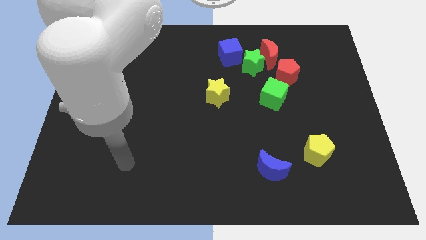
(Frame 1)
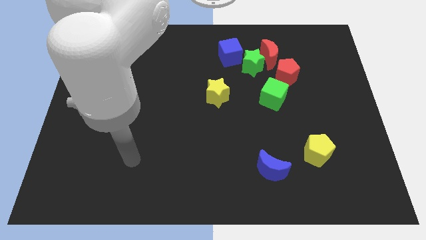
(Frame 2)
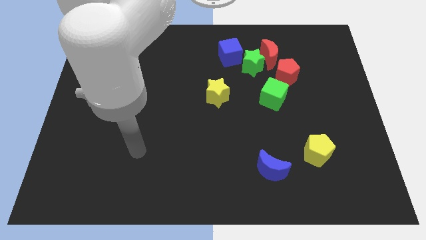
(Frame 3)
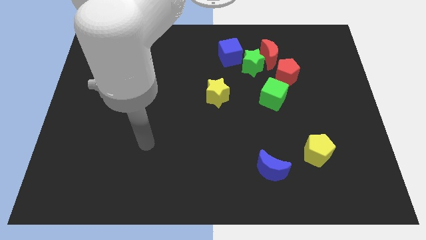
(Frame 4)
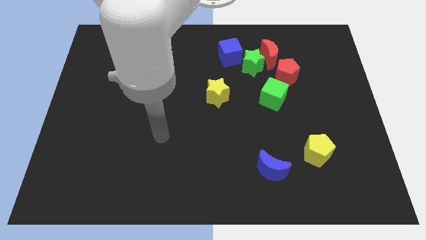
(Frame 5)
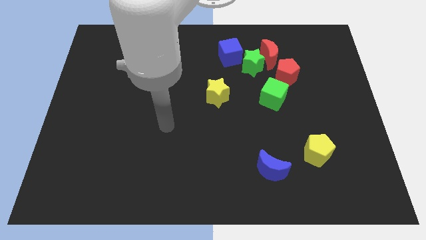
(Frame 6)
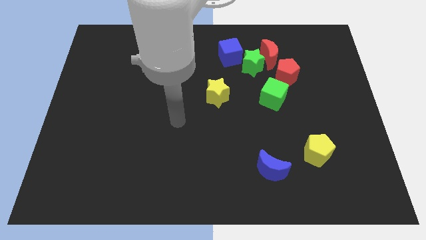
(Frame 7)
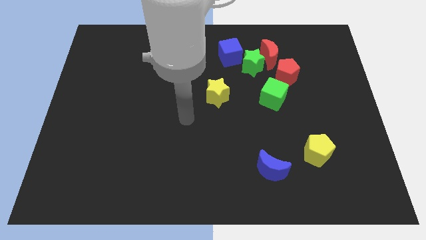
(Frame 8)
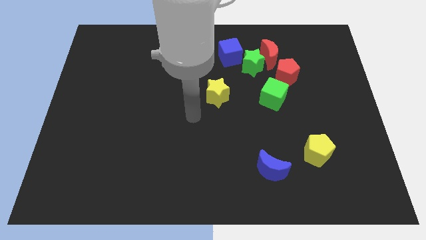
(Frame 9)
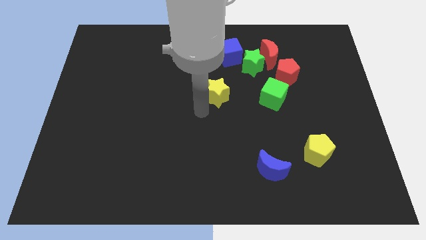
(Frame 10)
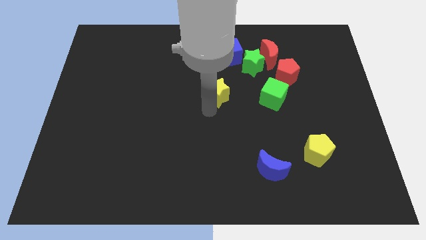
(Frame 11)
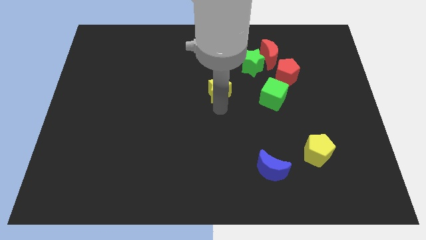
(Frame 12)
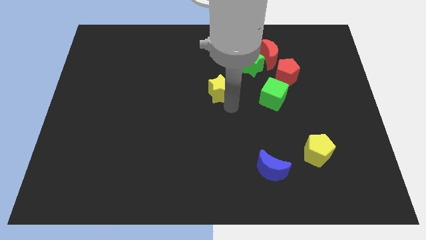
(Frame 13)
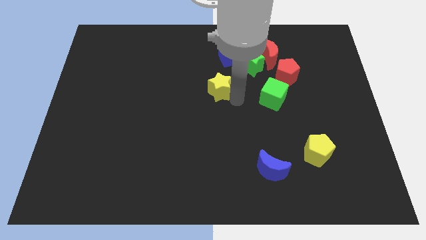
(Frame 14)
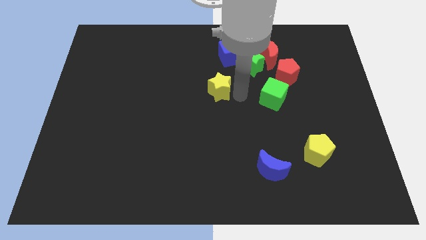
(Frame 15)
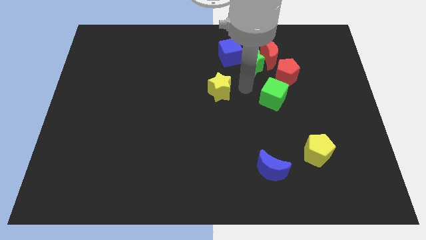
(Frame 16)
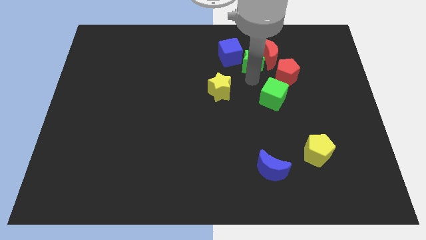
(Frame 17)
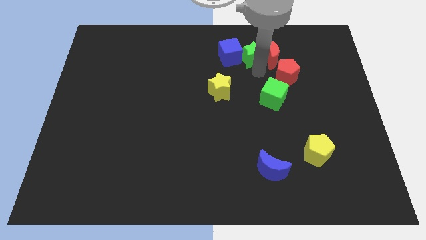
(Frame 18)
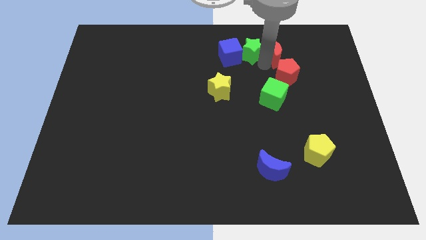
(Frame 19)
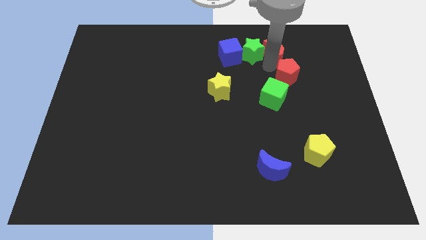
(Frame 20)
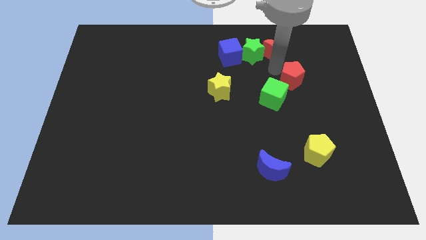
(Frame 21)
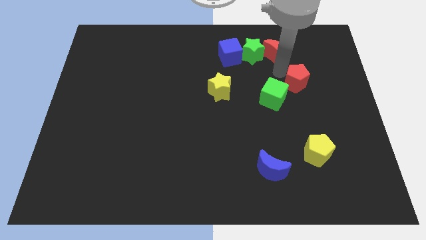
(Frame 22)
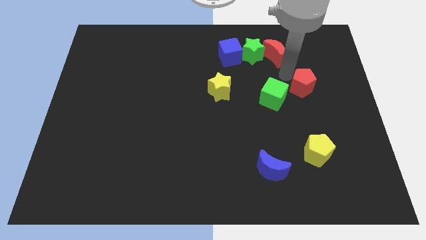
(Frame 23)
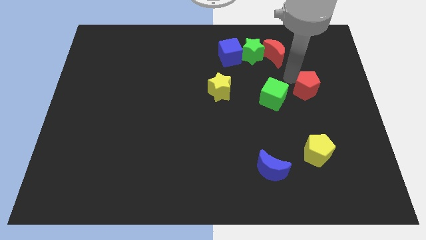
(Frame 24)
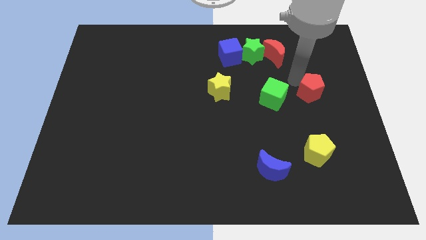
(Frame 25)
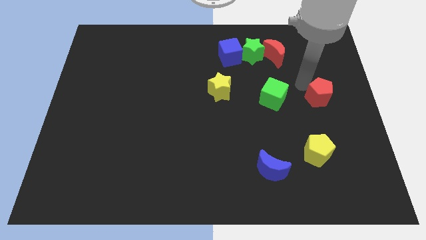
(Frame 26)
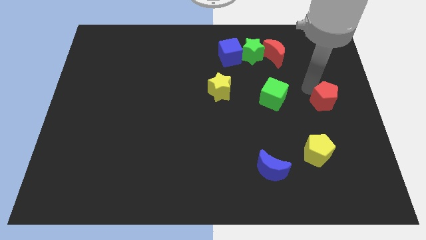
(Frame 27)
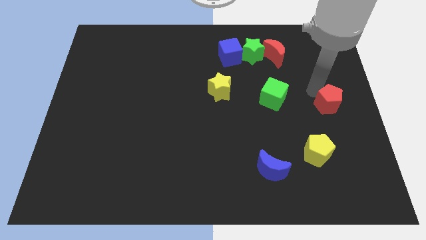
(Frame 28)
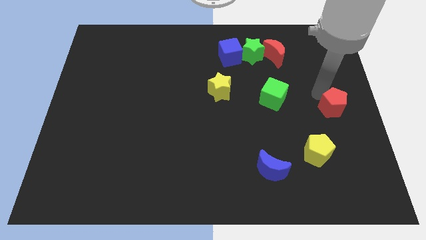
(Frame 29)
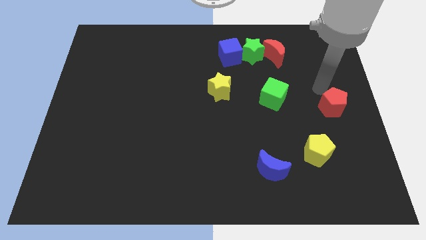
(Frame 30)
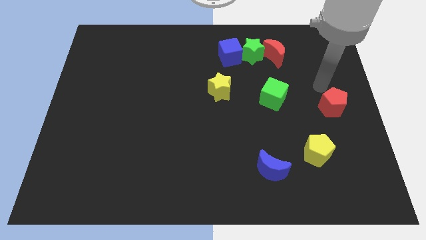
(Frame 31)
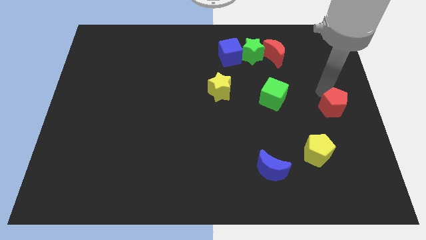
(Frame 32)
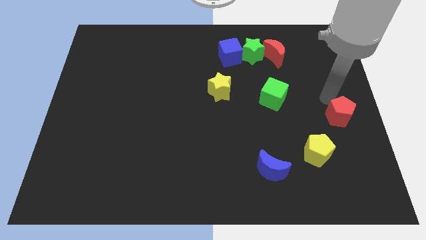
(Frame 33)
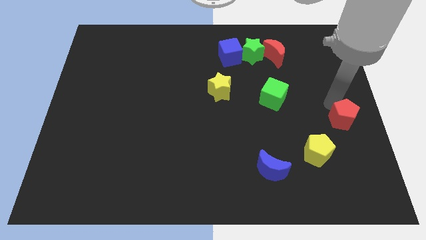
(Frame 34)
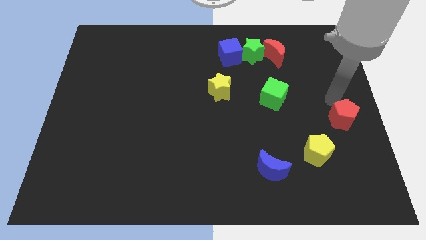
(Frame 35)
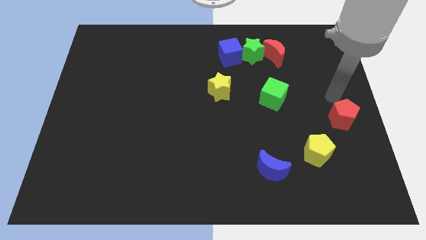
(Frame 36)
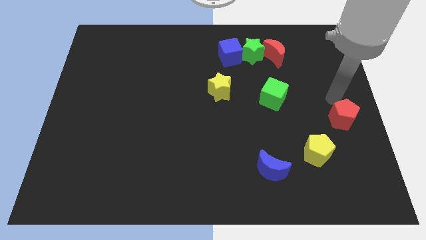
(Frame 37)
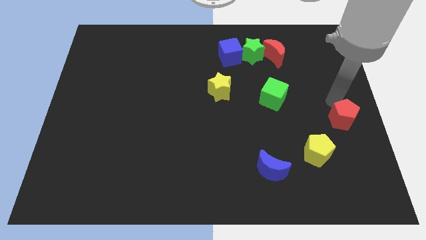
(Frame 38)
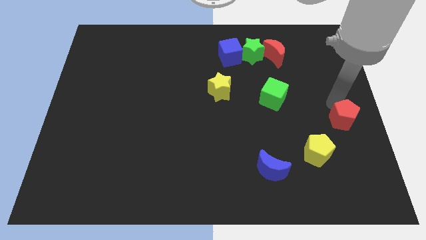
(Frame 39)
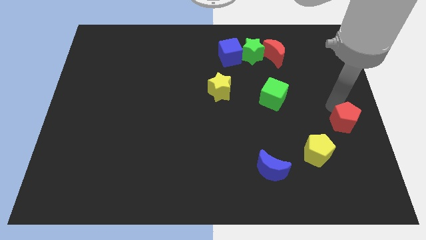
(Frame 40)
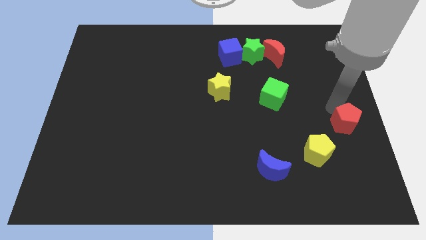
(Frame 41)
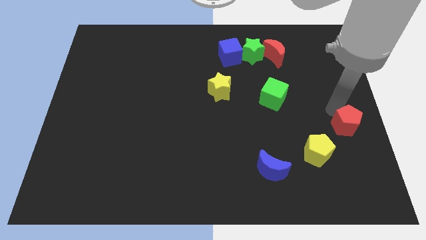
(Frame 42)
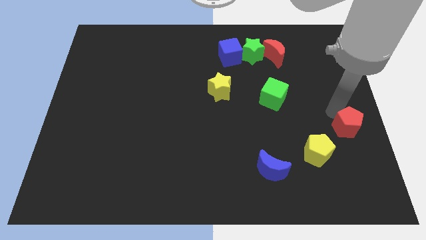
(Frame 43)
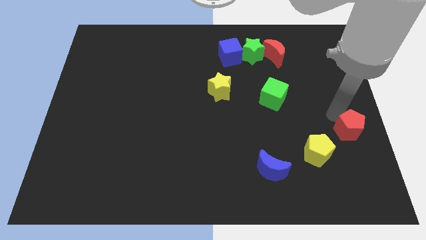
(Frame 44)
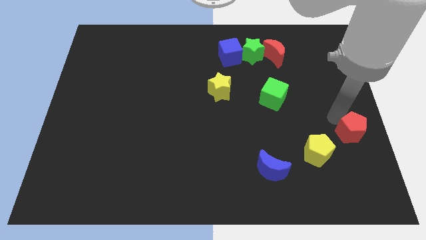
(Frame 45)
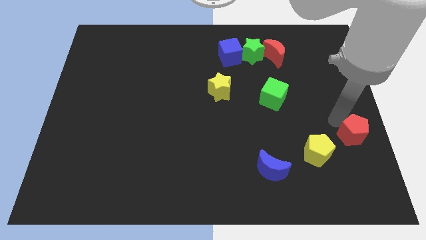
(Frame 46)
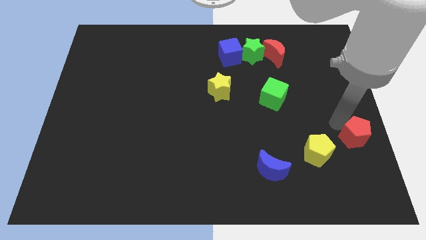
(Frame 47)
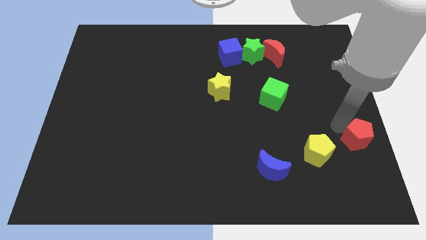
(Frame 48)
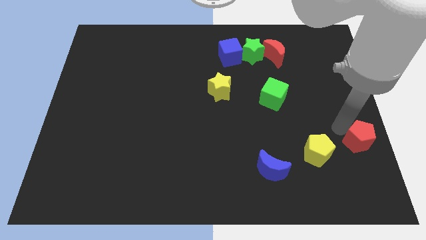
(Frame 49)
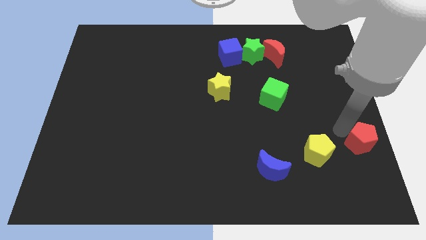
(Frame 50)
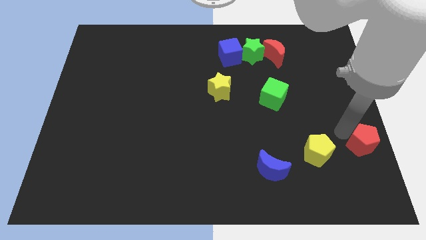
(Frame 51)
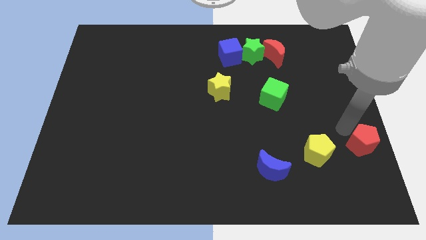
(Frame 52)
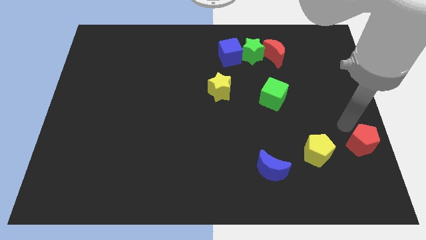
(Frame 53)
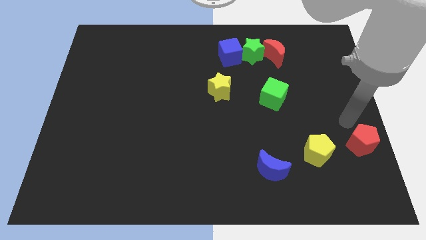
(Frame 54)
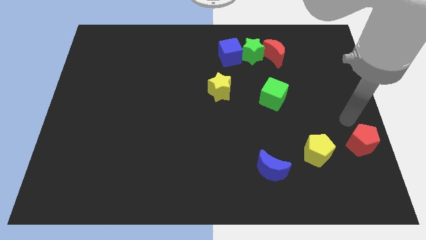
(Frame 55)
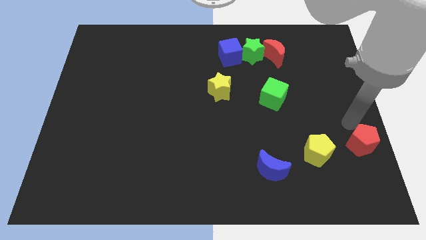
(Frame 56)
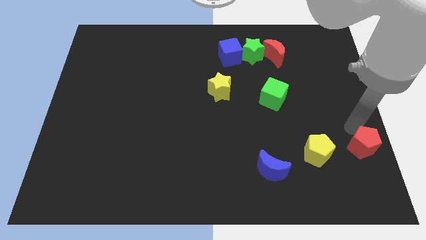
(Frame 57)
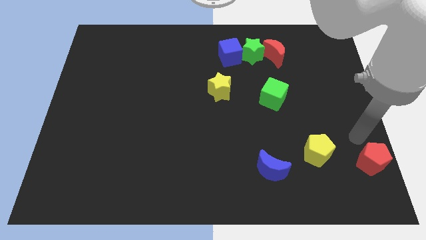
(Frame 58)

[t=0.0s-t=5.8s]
push the red pentagon to the bottom right of the board

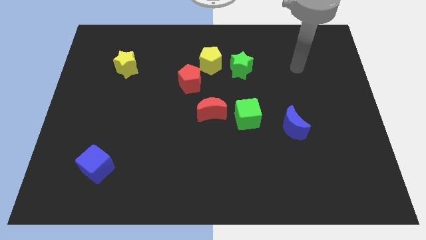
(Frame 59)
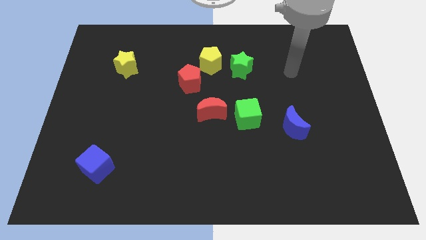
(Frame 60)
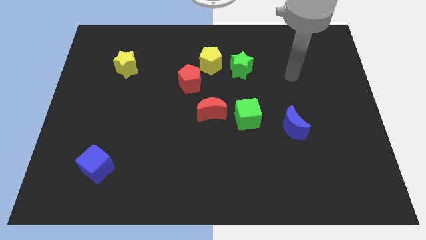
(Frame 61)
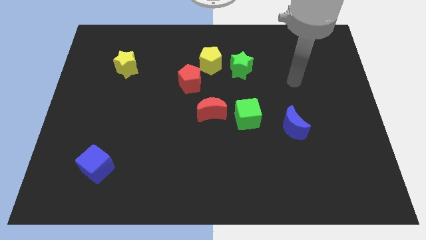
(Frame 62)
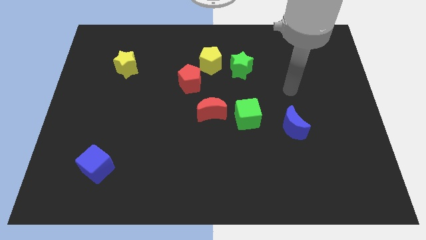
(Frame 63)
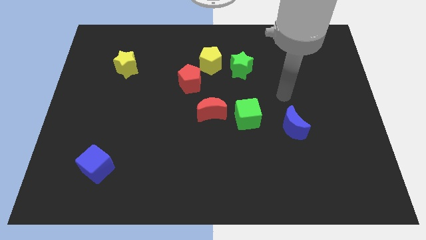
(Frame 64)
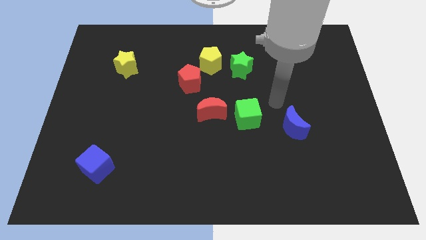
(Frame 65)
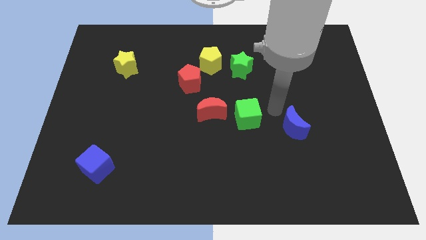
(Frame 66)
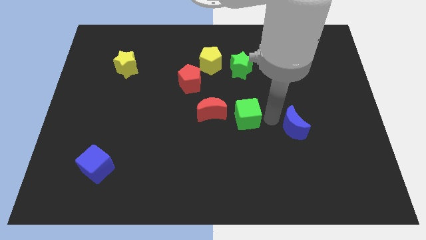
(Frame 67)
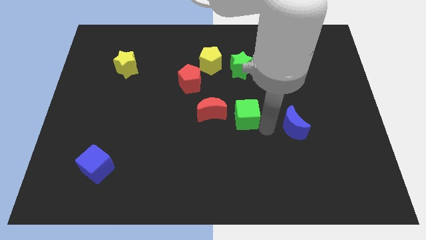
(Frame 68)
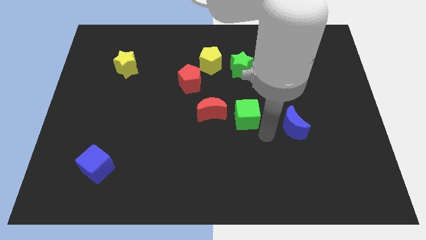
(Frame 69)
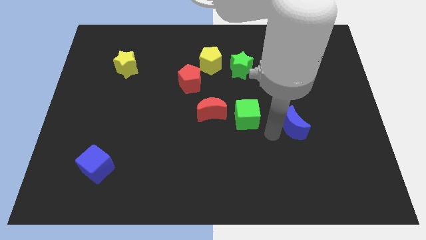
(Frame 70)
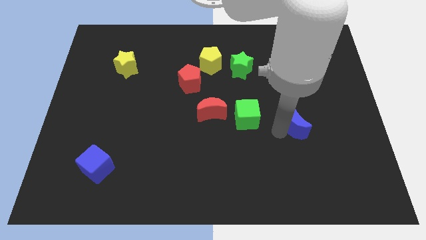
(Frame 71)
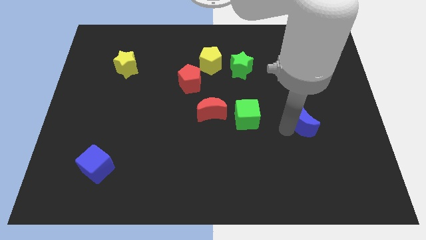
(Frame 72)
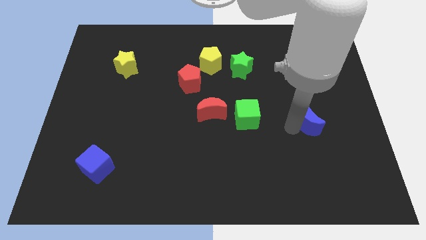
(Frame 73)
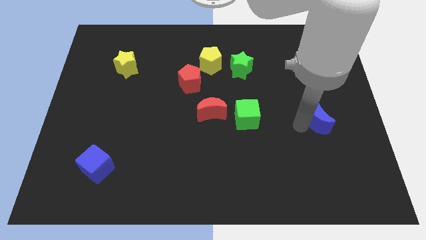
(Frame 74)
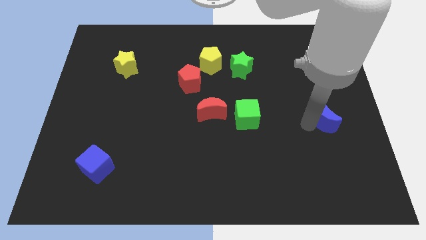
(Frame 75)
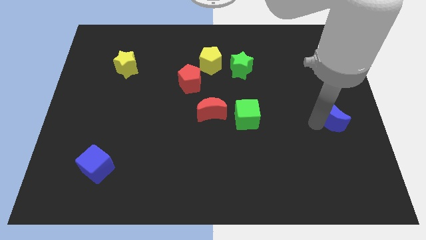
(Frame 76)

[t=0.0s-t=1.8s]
put the blue moon to the right side of the board
